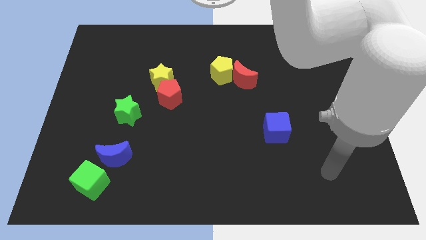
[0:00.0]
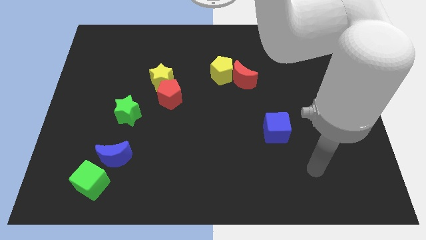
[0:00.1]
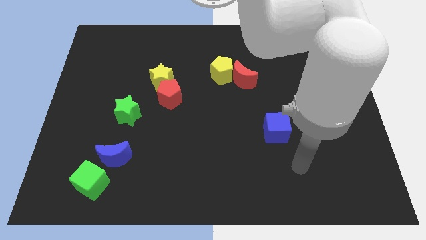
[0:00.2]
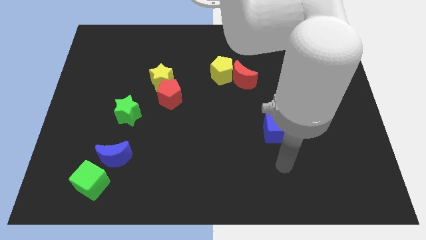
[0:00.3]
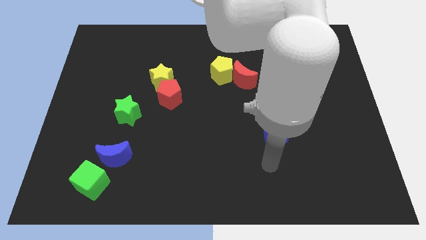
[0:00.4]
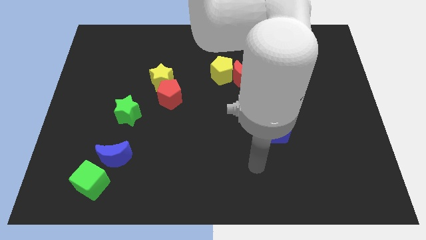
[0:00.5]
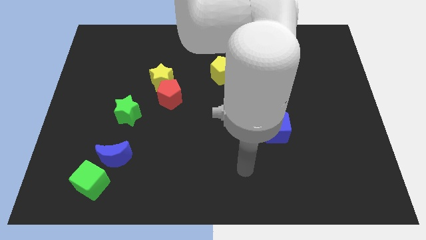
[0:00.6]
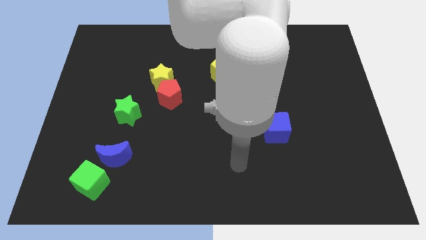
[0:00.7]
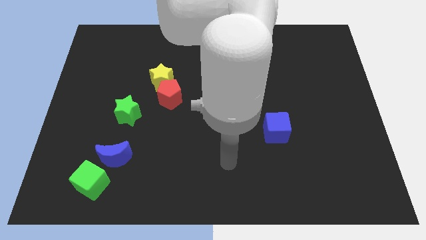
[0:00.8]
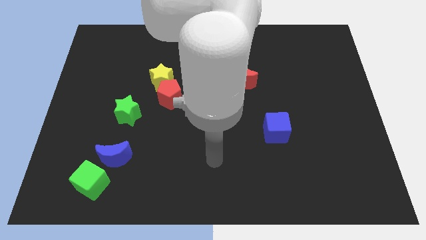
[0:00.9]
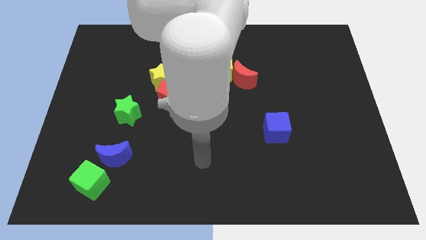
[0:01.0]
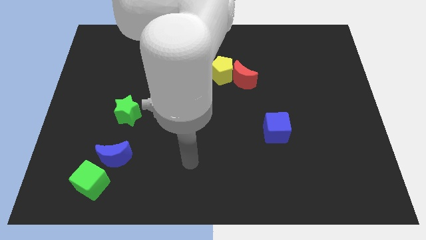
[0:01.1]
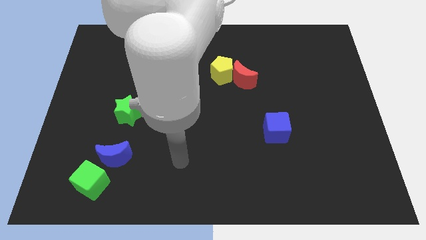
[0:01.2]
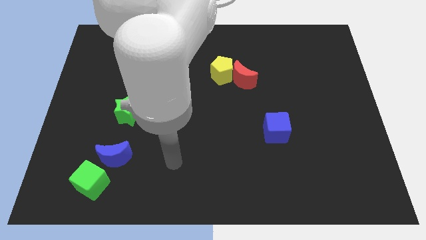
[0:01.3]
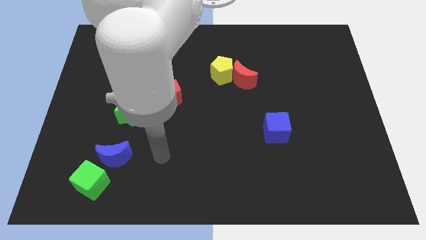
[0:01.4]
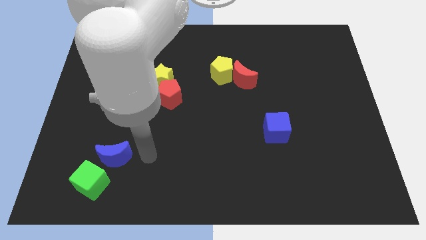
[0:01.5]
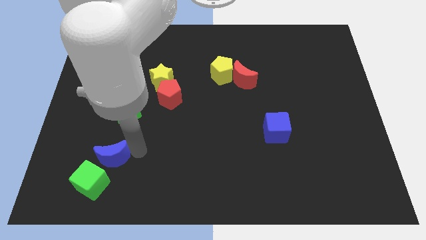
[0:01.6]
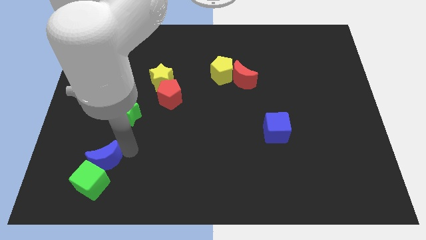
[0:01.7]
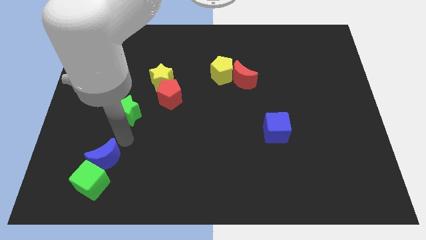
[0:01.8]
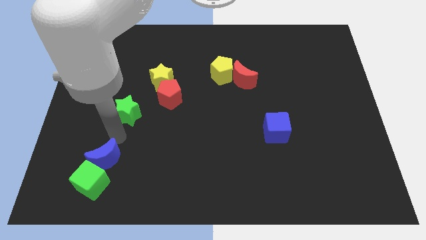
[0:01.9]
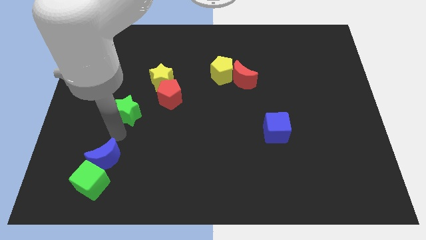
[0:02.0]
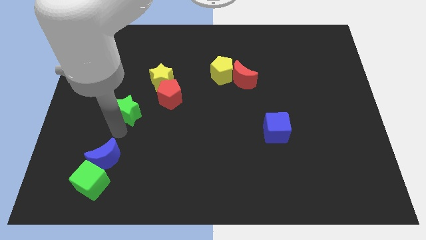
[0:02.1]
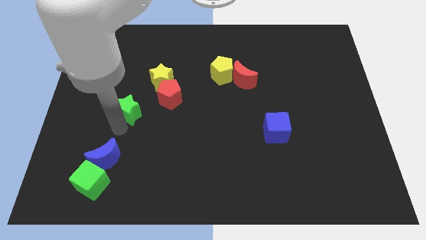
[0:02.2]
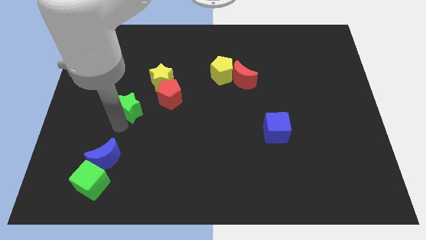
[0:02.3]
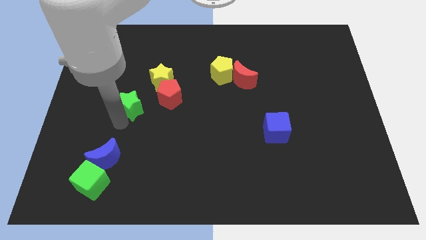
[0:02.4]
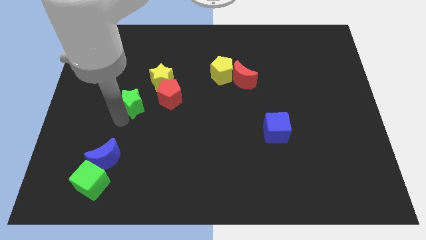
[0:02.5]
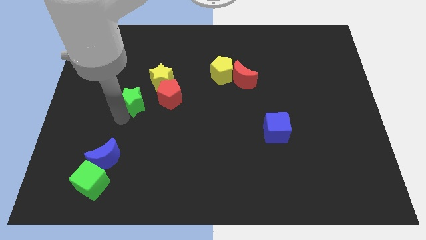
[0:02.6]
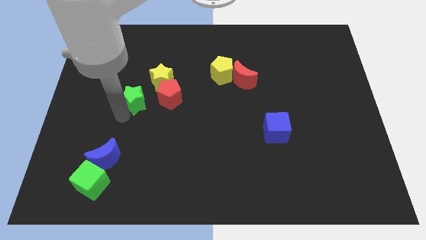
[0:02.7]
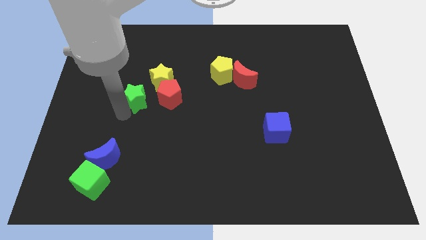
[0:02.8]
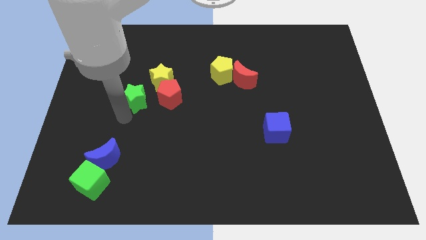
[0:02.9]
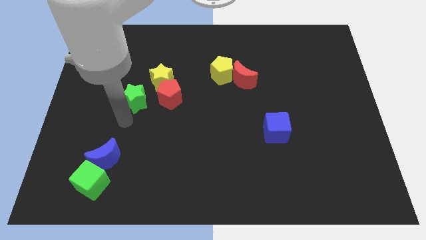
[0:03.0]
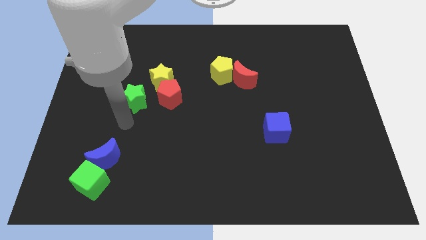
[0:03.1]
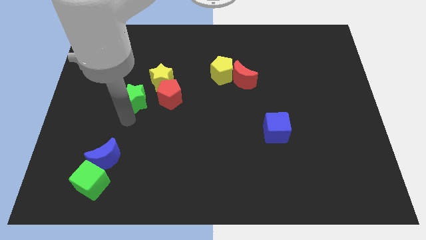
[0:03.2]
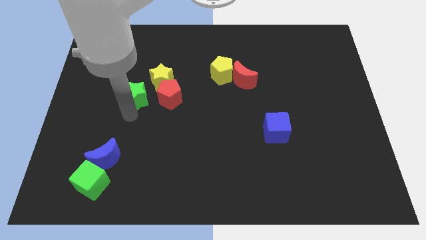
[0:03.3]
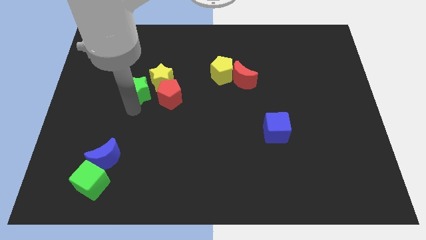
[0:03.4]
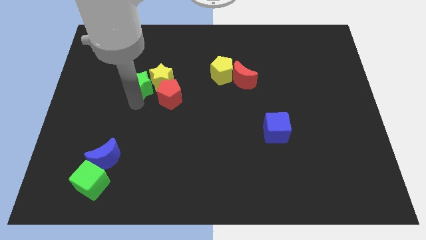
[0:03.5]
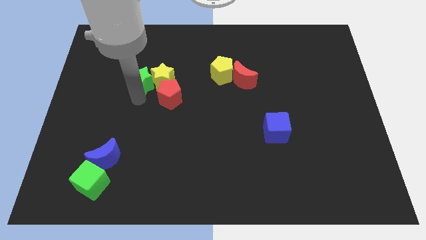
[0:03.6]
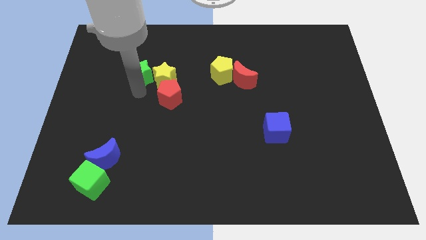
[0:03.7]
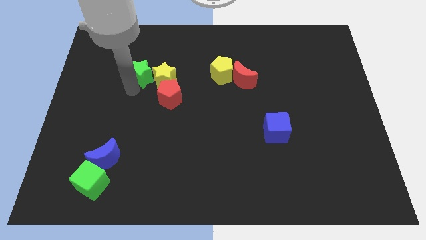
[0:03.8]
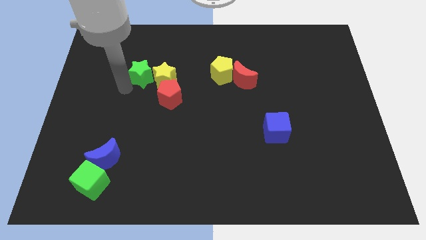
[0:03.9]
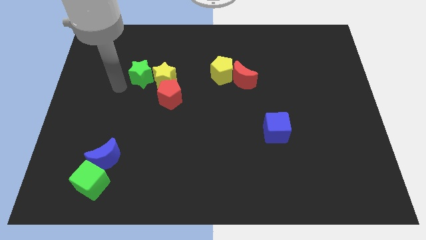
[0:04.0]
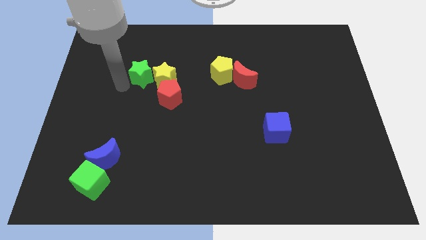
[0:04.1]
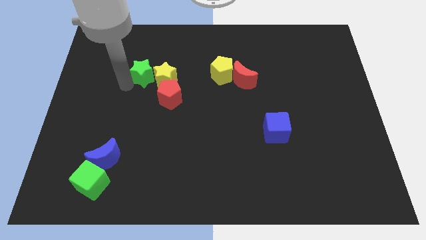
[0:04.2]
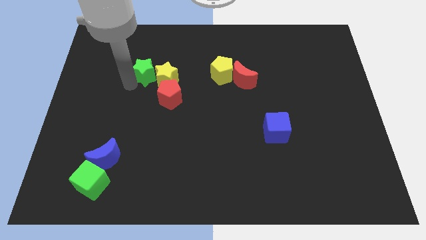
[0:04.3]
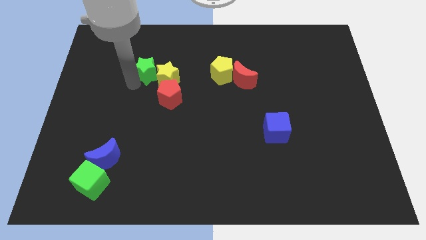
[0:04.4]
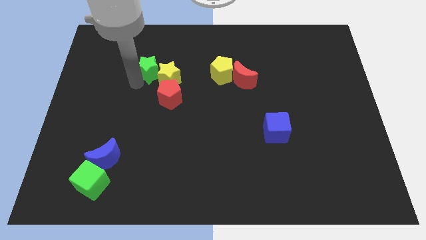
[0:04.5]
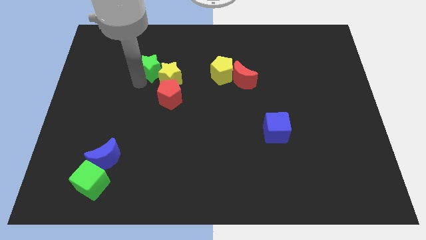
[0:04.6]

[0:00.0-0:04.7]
push the green star above the red pentagon

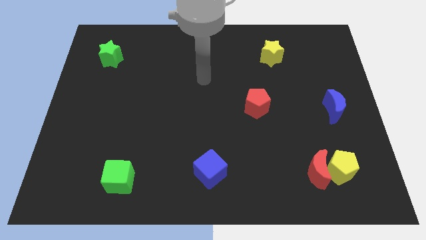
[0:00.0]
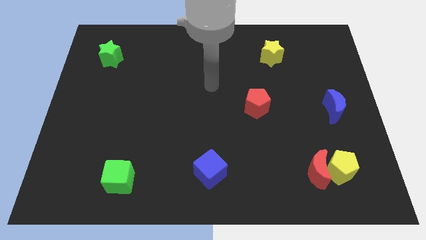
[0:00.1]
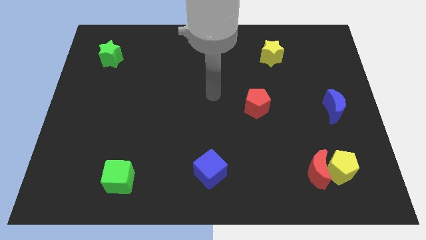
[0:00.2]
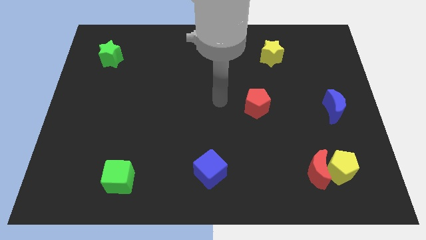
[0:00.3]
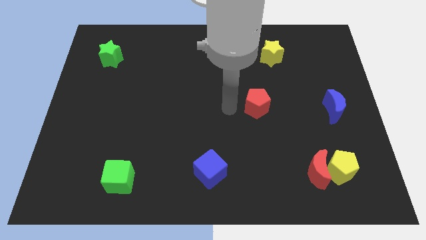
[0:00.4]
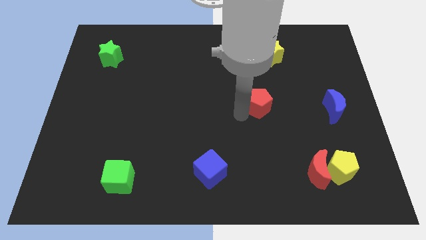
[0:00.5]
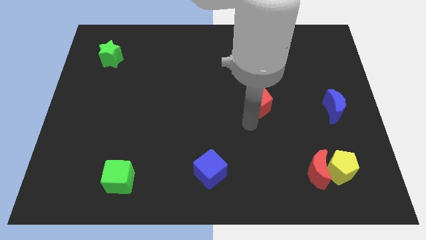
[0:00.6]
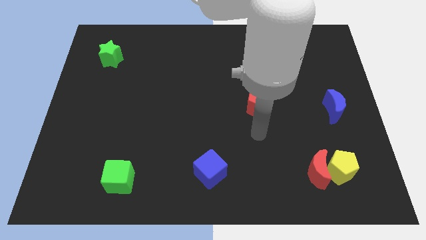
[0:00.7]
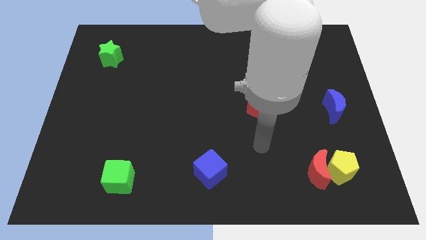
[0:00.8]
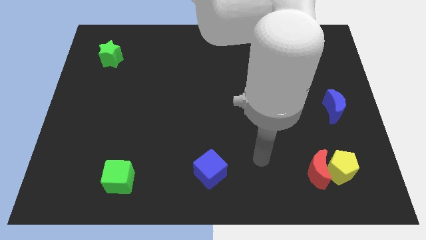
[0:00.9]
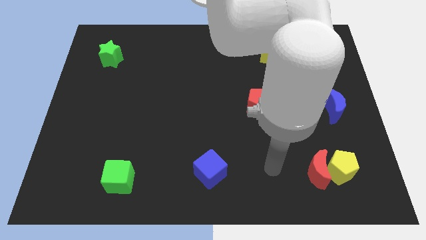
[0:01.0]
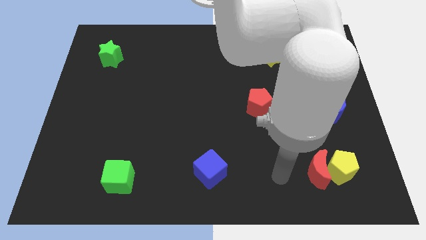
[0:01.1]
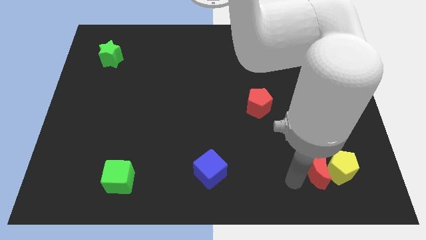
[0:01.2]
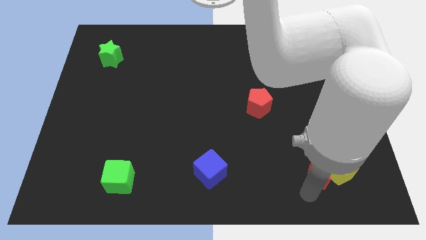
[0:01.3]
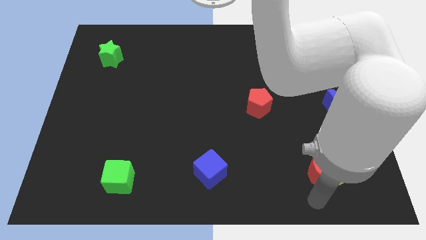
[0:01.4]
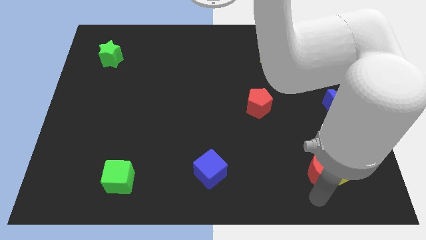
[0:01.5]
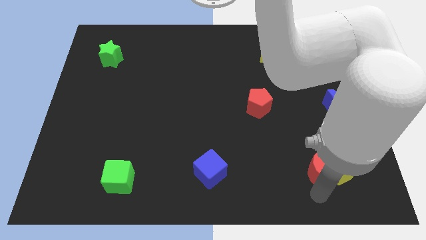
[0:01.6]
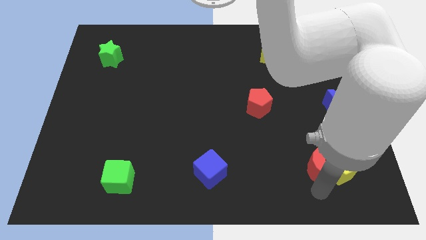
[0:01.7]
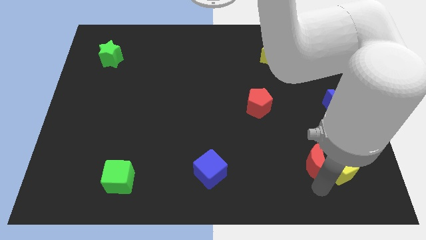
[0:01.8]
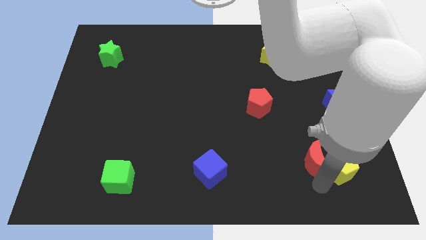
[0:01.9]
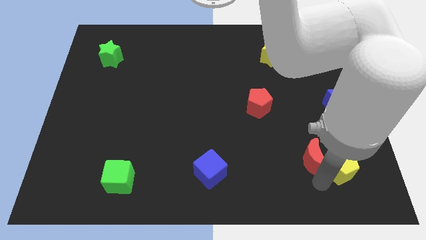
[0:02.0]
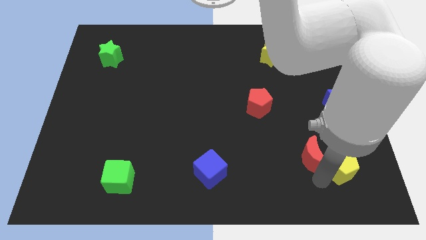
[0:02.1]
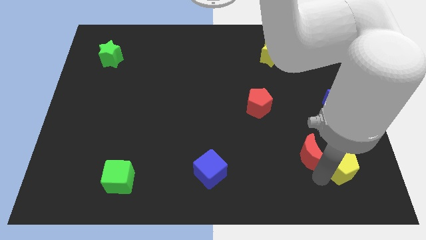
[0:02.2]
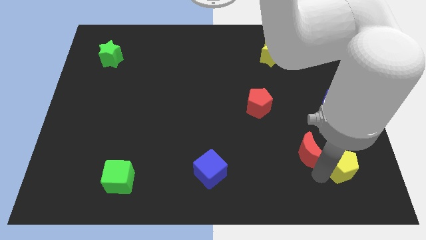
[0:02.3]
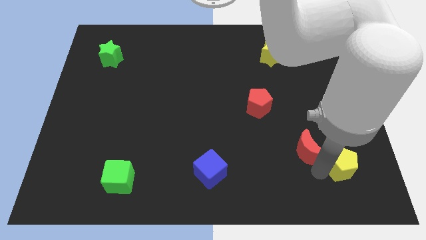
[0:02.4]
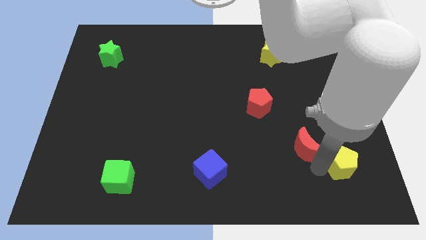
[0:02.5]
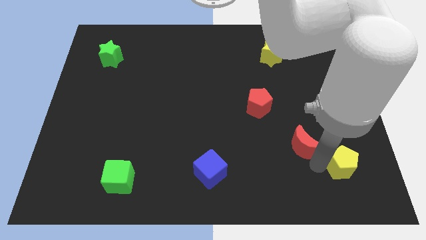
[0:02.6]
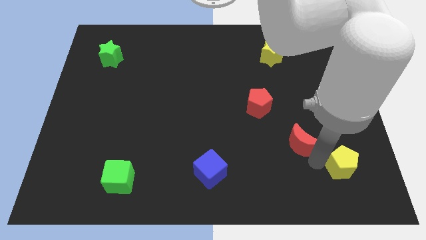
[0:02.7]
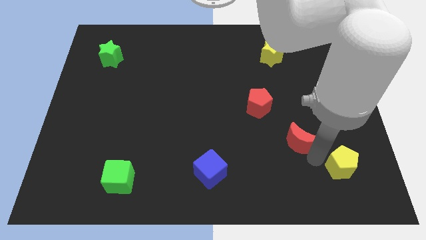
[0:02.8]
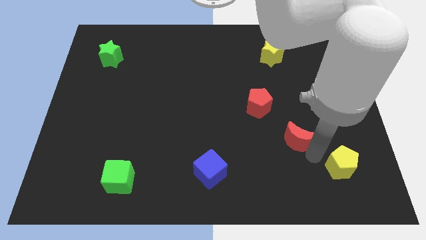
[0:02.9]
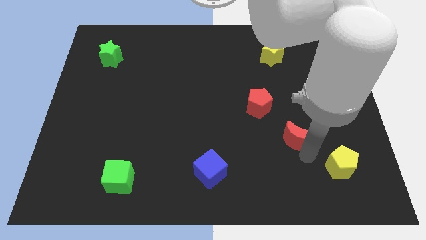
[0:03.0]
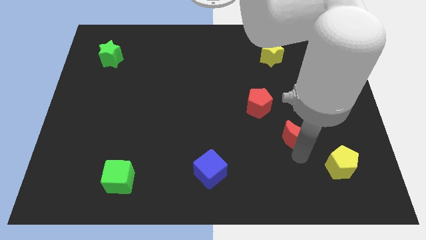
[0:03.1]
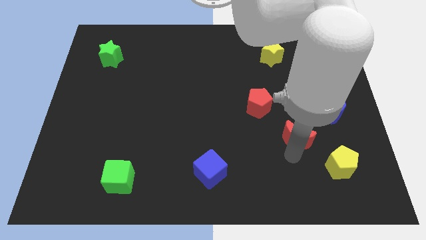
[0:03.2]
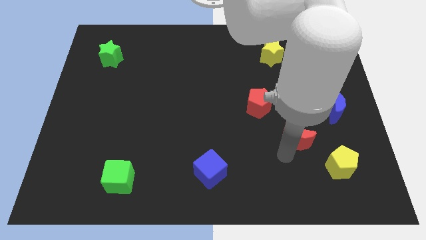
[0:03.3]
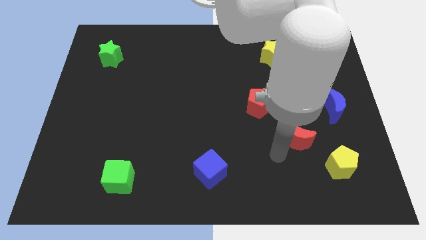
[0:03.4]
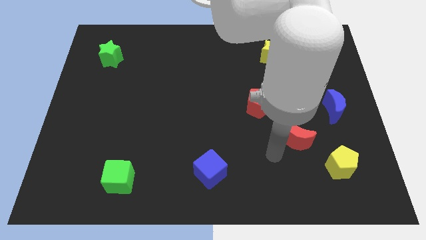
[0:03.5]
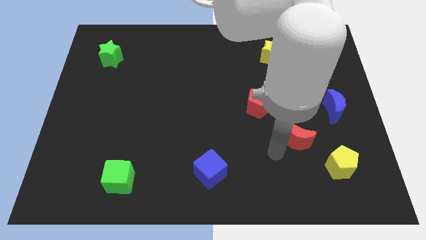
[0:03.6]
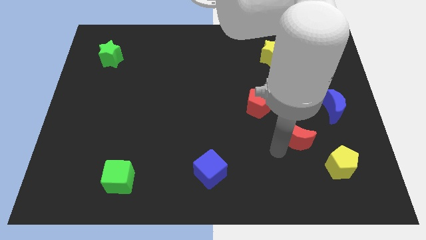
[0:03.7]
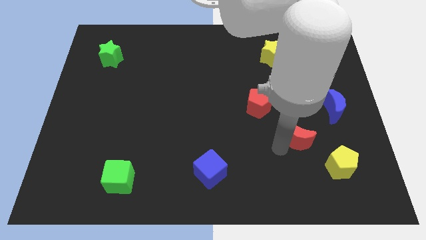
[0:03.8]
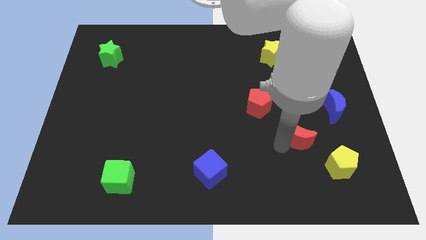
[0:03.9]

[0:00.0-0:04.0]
move the red moon to the bottom left side of the blue moon

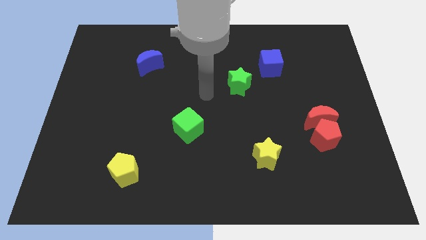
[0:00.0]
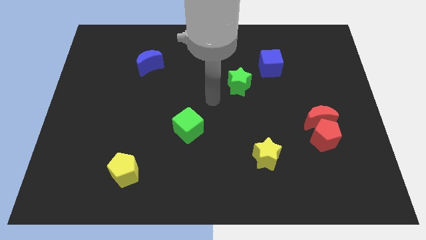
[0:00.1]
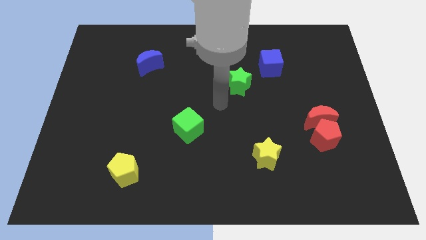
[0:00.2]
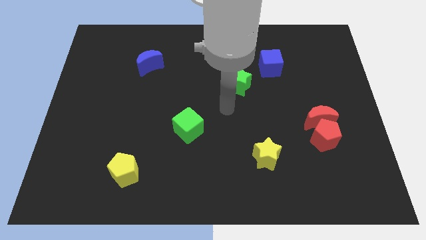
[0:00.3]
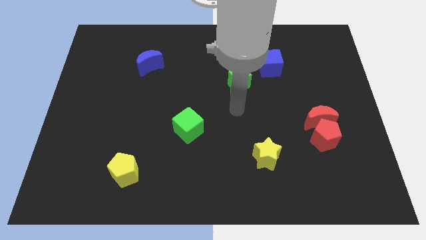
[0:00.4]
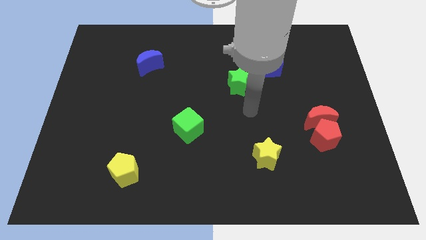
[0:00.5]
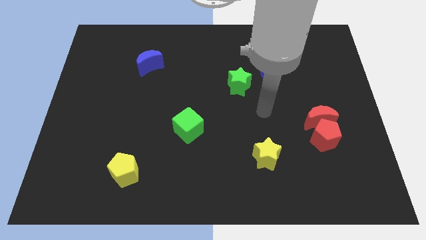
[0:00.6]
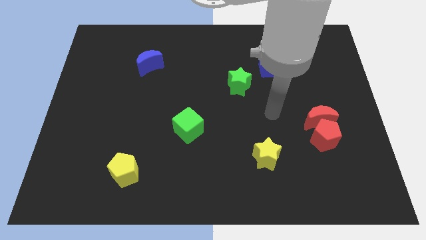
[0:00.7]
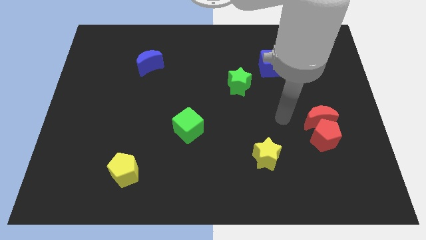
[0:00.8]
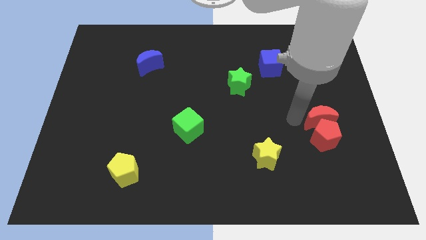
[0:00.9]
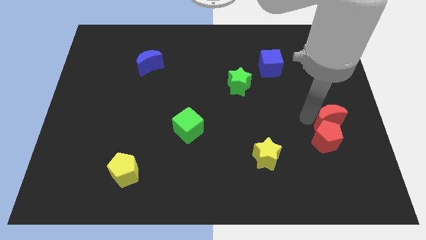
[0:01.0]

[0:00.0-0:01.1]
slide the red pentagon just right of the yellow star
